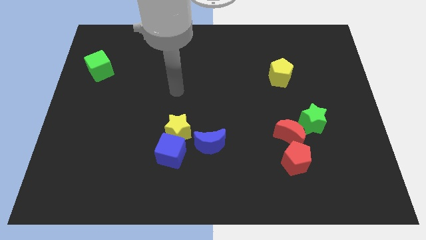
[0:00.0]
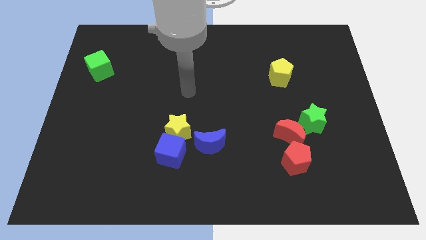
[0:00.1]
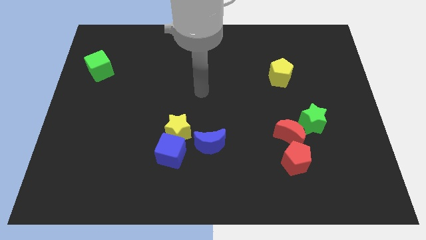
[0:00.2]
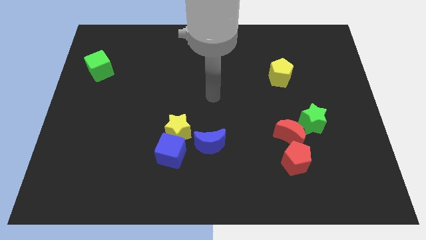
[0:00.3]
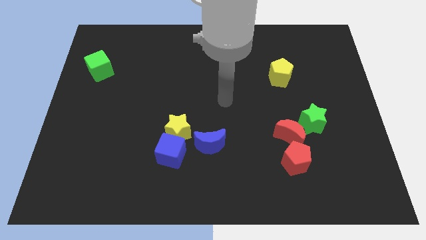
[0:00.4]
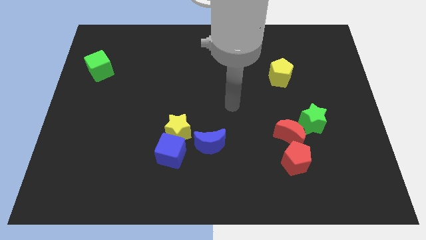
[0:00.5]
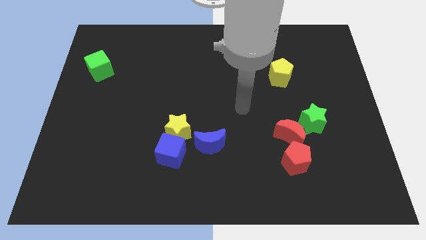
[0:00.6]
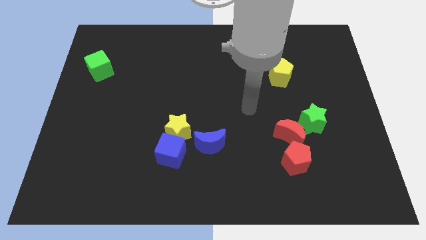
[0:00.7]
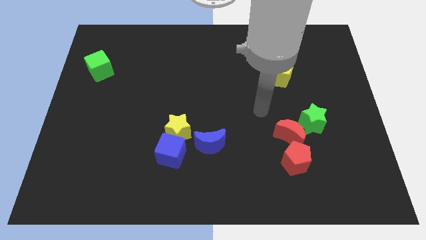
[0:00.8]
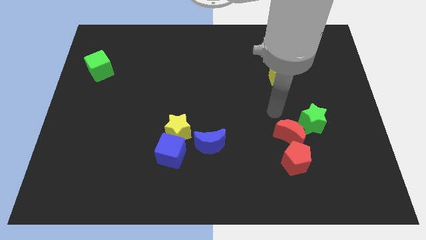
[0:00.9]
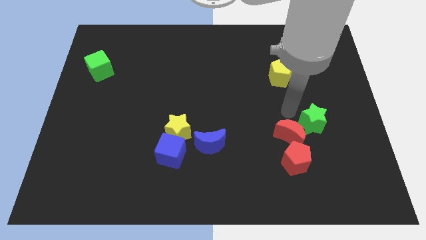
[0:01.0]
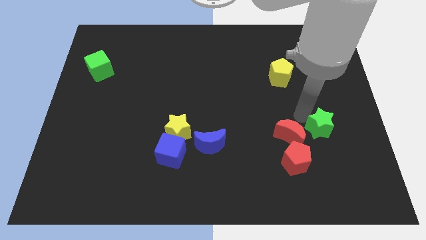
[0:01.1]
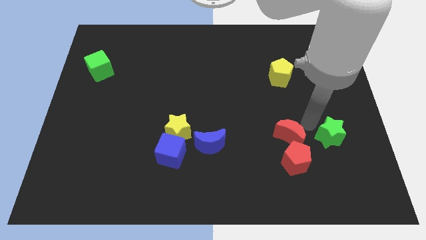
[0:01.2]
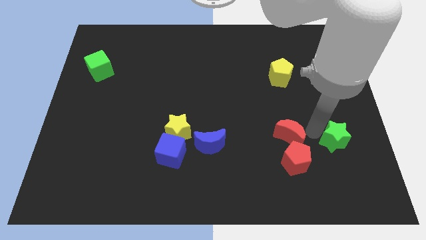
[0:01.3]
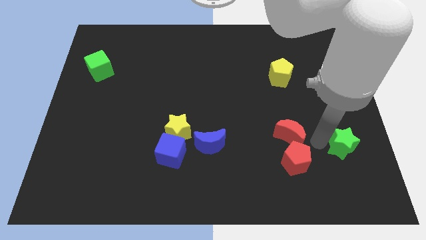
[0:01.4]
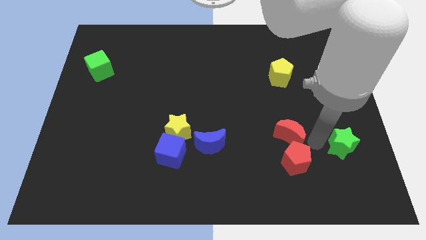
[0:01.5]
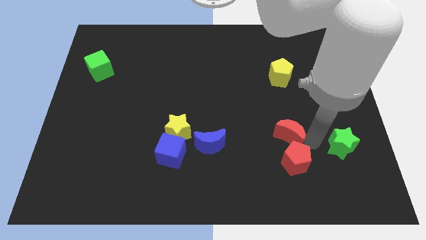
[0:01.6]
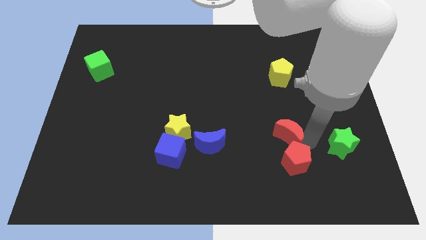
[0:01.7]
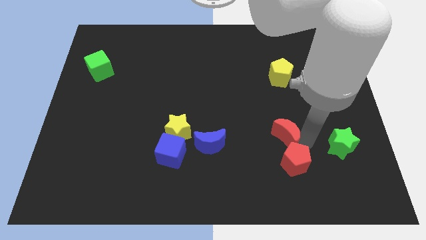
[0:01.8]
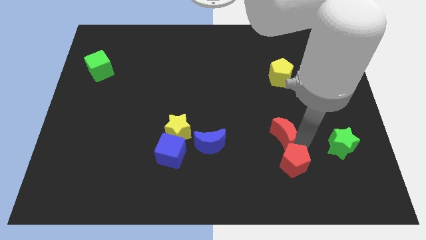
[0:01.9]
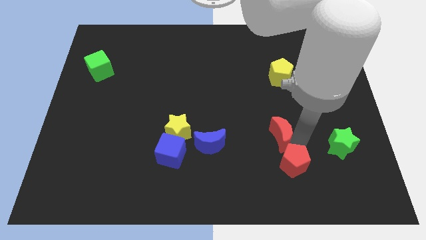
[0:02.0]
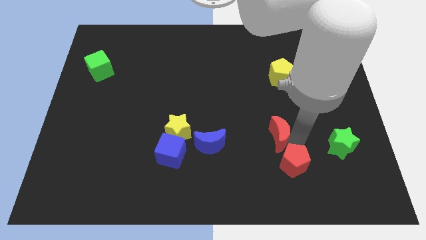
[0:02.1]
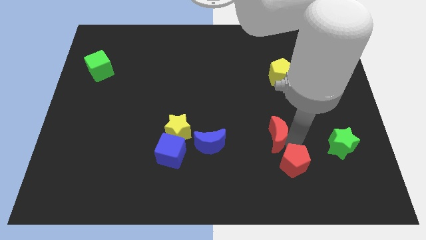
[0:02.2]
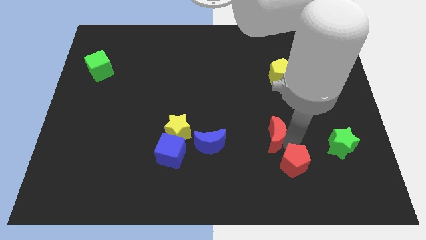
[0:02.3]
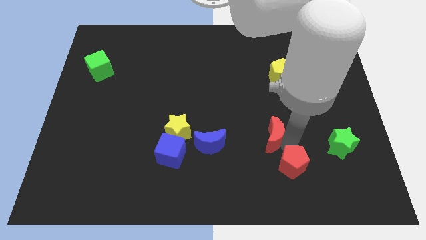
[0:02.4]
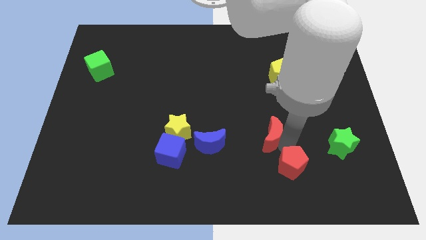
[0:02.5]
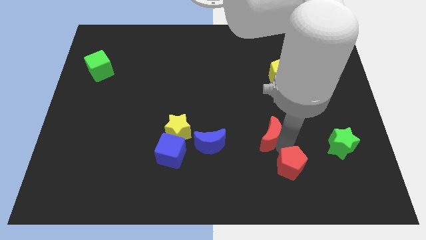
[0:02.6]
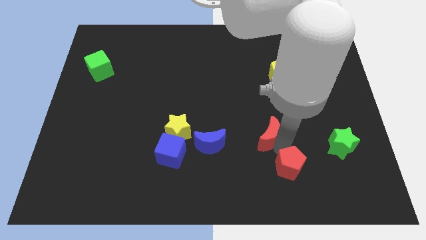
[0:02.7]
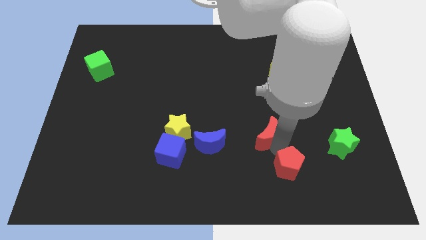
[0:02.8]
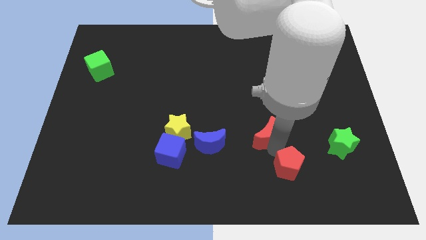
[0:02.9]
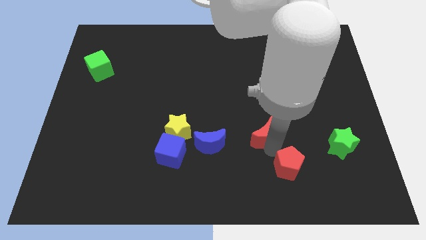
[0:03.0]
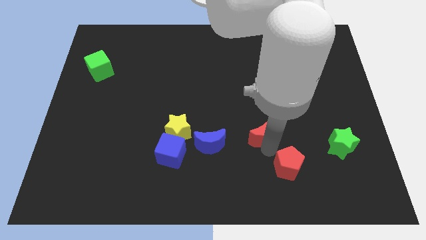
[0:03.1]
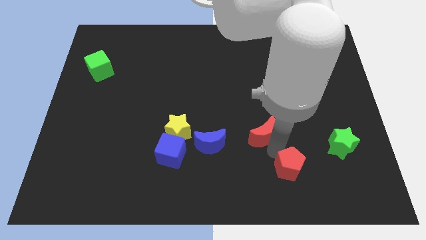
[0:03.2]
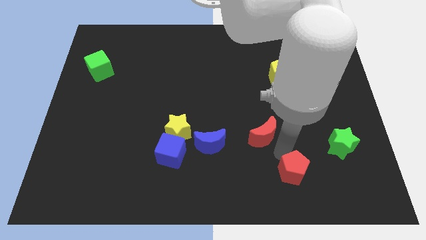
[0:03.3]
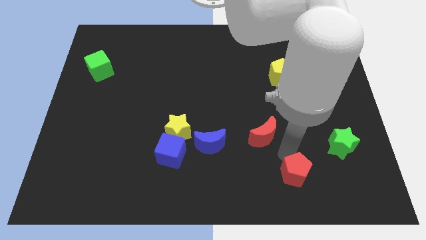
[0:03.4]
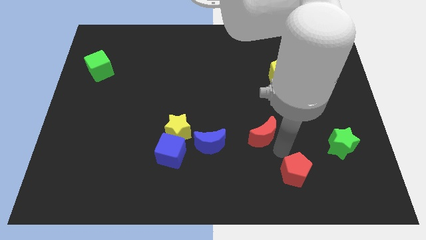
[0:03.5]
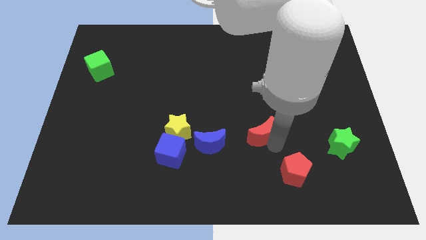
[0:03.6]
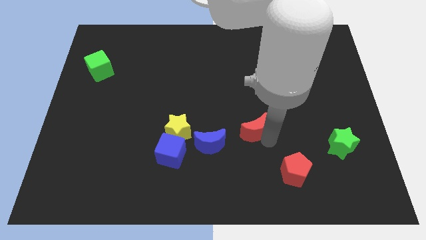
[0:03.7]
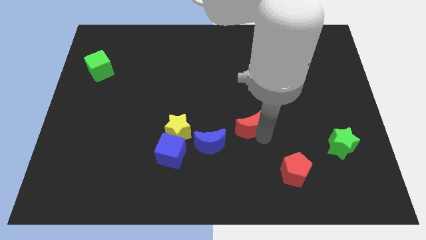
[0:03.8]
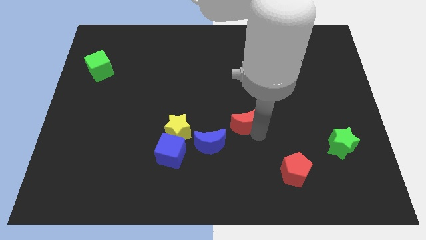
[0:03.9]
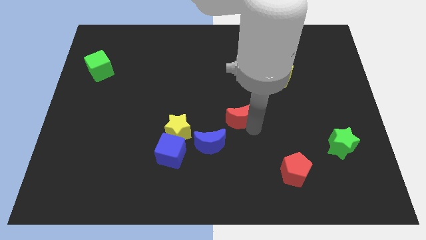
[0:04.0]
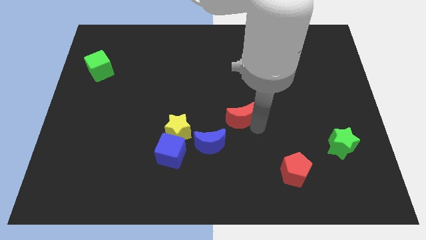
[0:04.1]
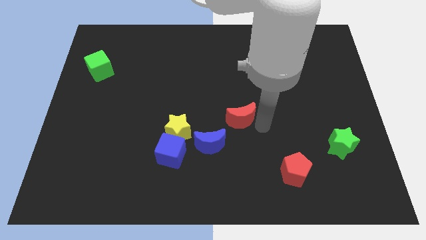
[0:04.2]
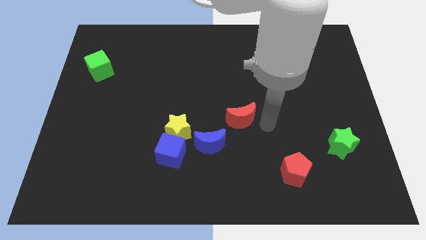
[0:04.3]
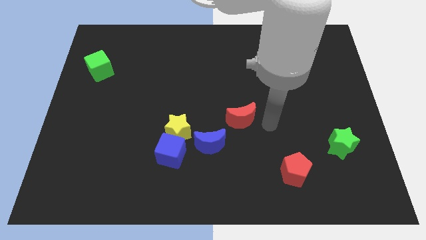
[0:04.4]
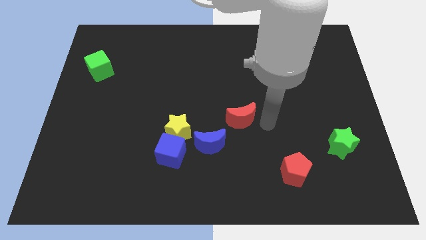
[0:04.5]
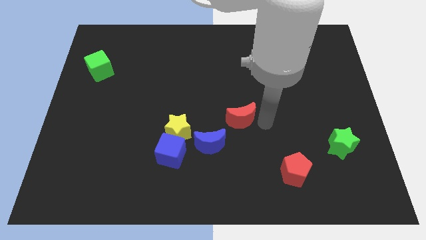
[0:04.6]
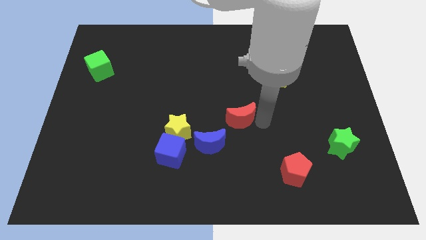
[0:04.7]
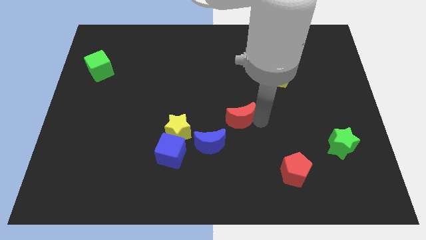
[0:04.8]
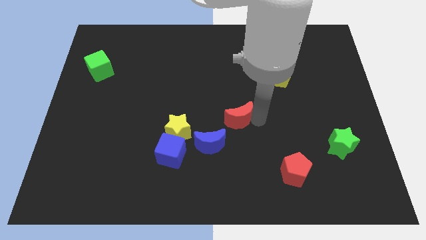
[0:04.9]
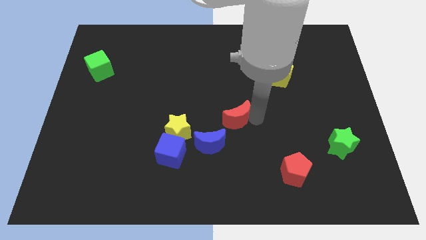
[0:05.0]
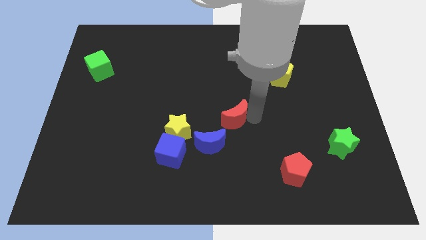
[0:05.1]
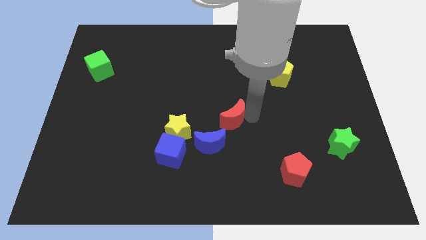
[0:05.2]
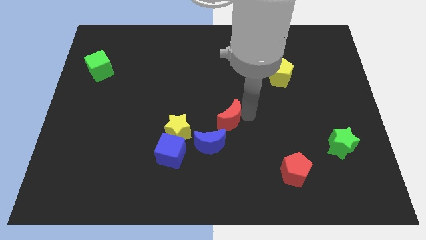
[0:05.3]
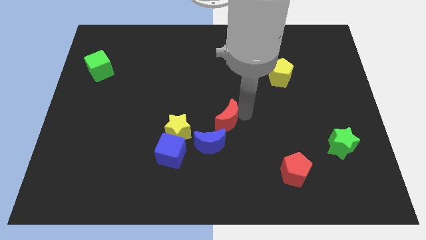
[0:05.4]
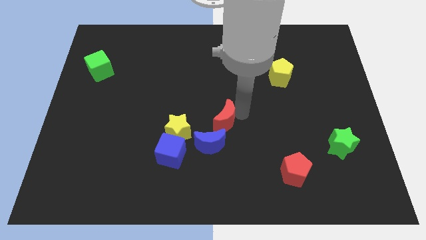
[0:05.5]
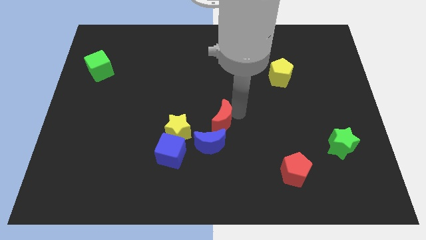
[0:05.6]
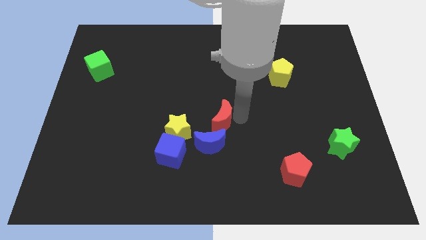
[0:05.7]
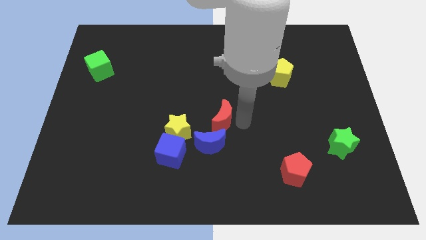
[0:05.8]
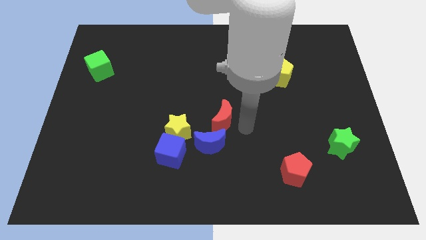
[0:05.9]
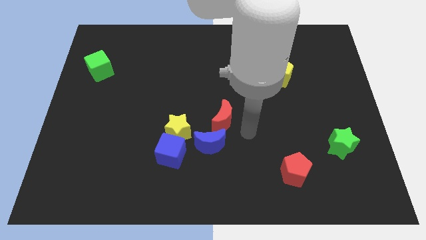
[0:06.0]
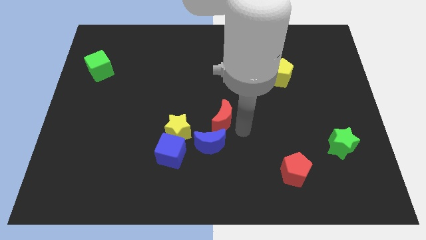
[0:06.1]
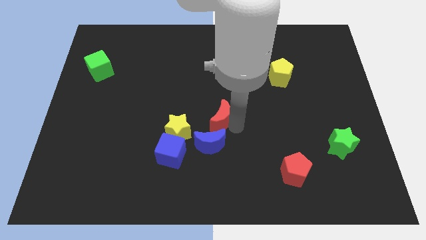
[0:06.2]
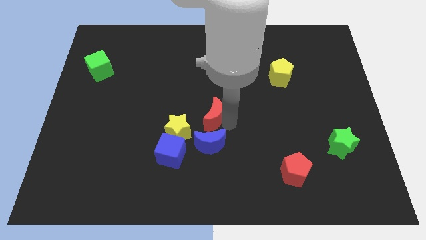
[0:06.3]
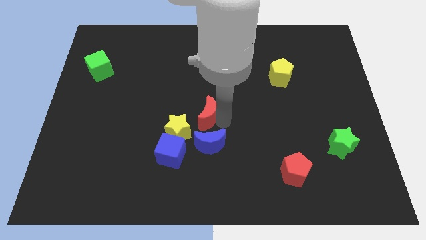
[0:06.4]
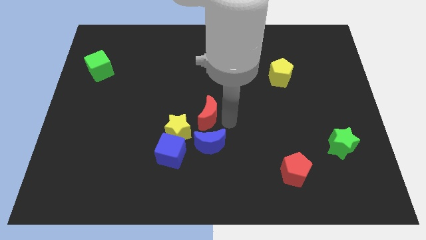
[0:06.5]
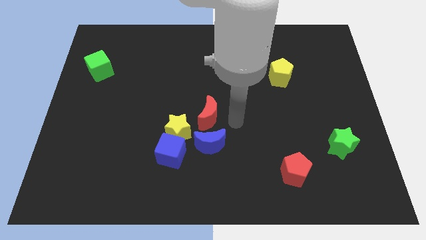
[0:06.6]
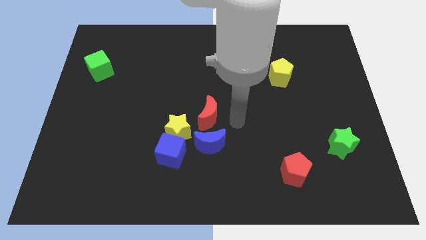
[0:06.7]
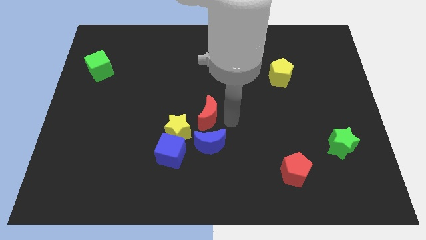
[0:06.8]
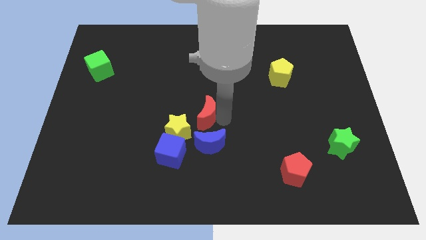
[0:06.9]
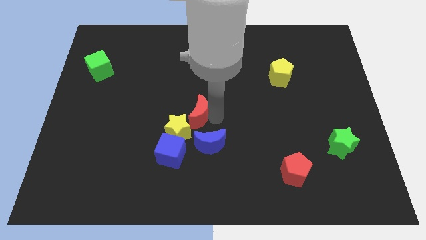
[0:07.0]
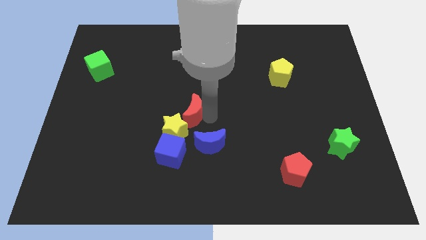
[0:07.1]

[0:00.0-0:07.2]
slide the red moon to the left

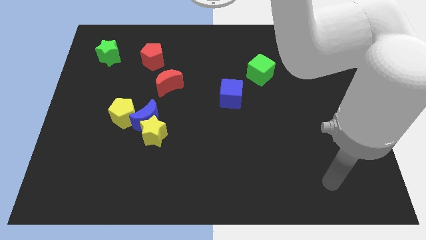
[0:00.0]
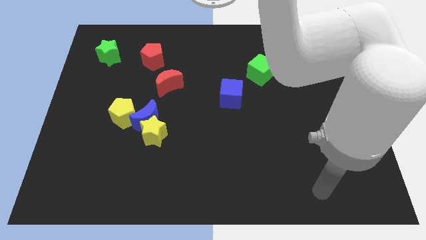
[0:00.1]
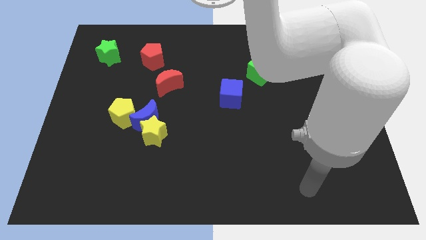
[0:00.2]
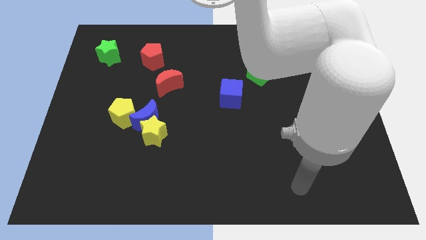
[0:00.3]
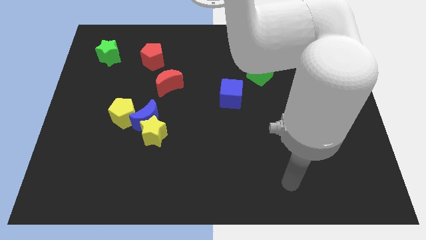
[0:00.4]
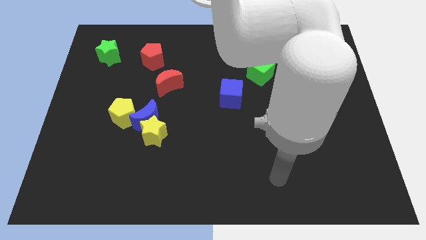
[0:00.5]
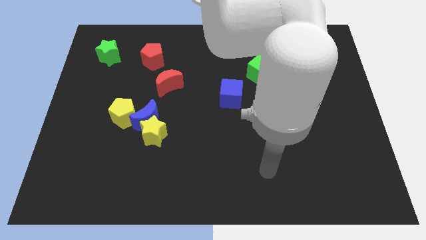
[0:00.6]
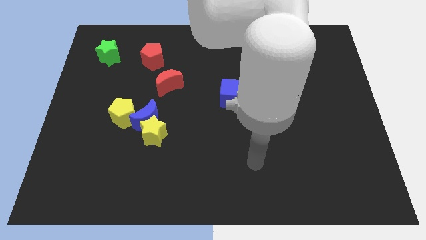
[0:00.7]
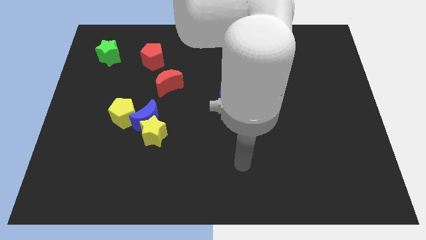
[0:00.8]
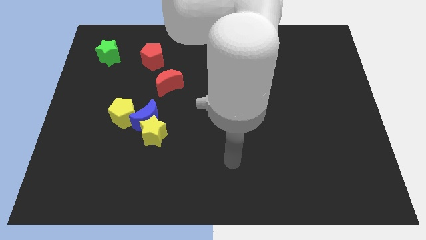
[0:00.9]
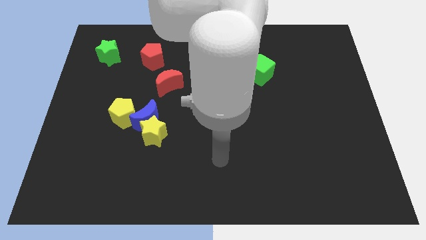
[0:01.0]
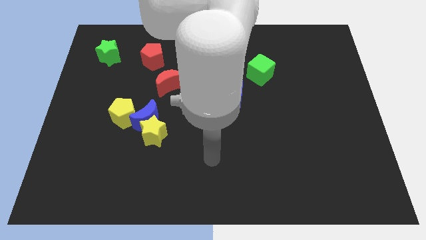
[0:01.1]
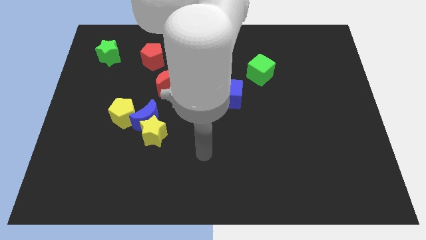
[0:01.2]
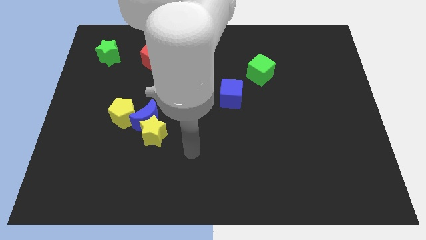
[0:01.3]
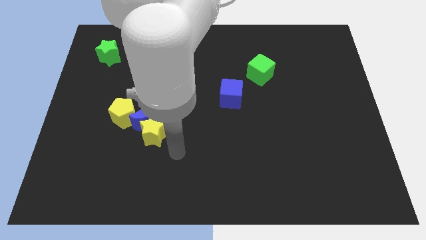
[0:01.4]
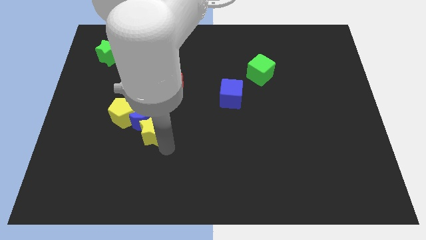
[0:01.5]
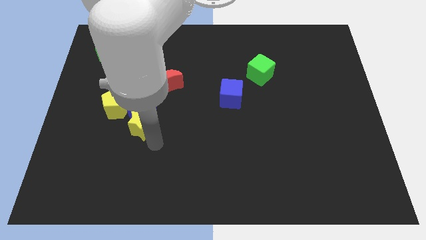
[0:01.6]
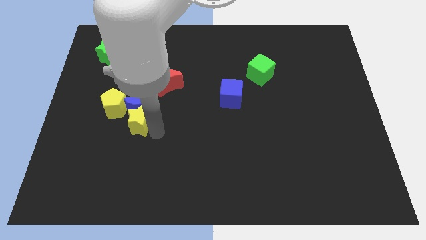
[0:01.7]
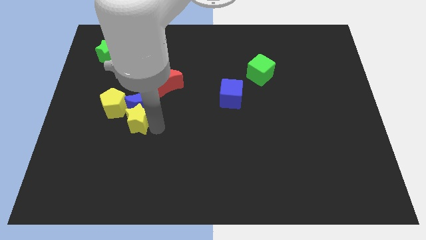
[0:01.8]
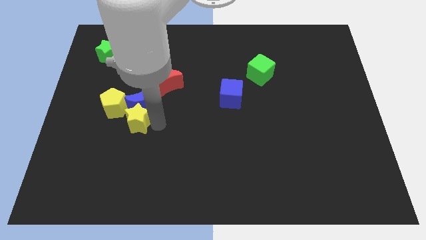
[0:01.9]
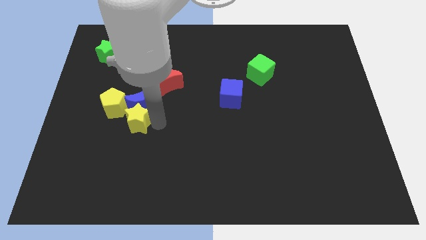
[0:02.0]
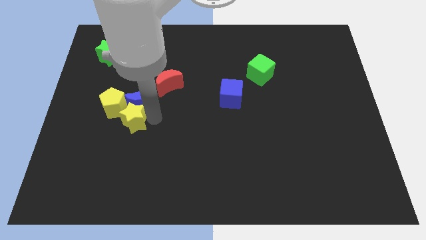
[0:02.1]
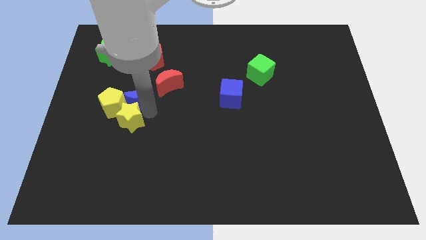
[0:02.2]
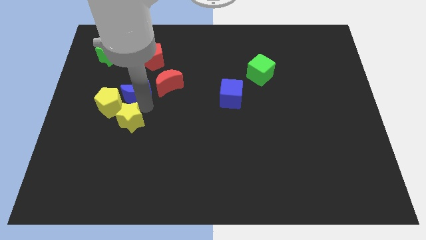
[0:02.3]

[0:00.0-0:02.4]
slightly slide the blue moon upwards and to the left diagonally
